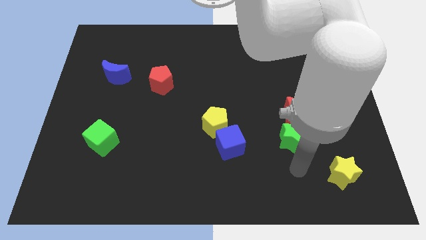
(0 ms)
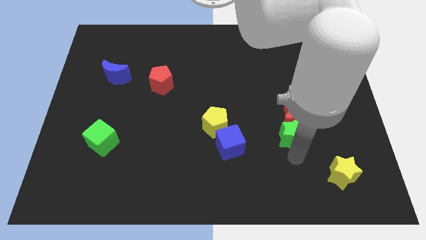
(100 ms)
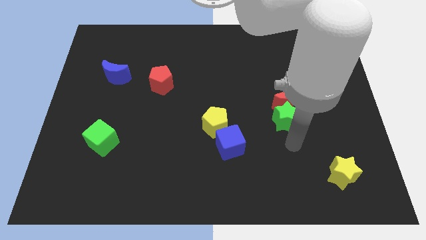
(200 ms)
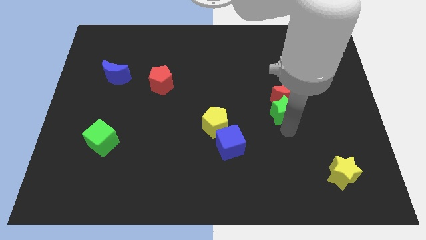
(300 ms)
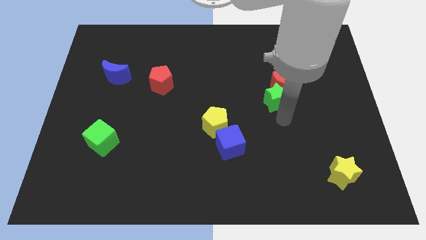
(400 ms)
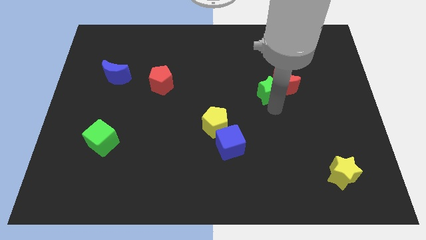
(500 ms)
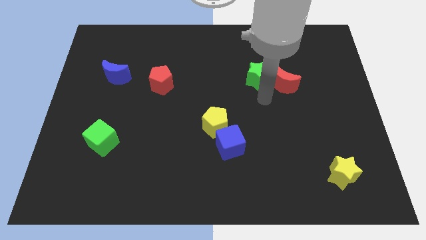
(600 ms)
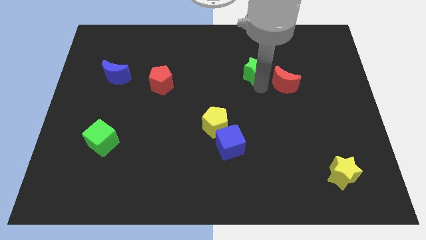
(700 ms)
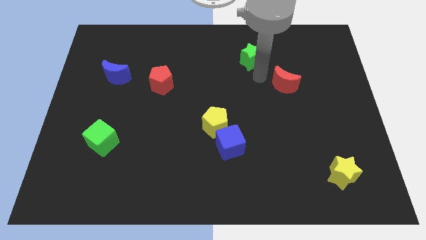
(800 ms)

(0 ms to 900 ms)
separate the red moon from the green star

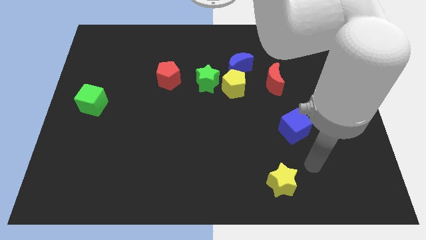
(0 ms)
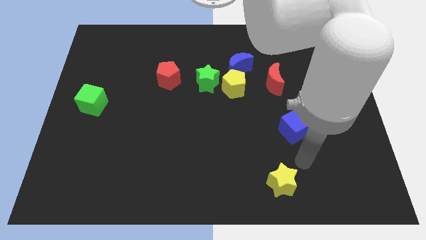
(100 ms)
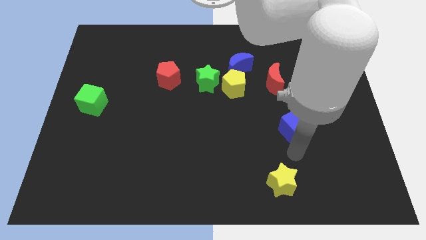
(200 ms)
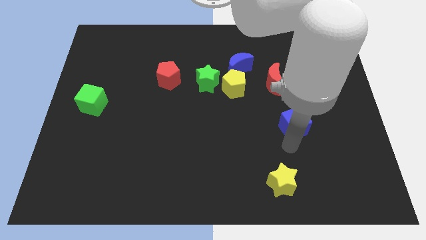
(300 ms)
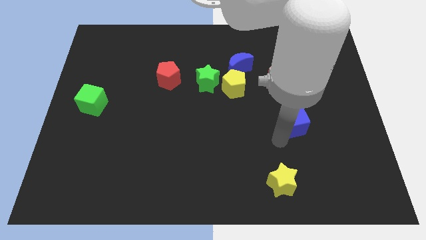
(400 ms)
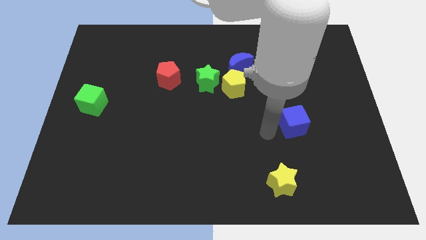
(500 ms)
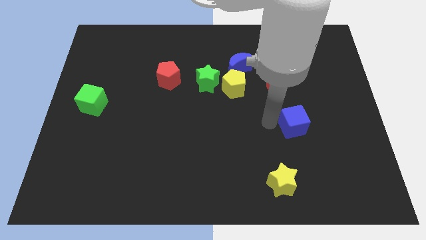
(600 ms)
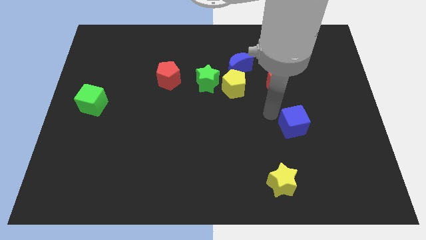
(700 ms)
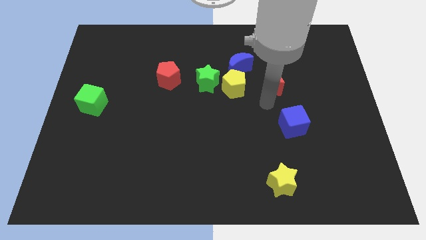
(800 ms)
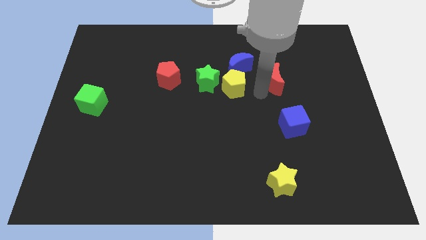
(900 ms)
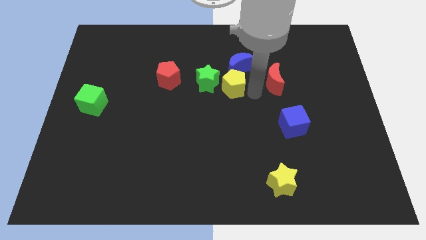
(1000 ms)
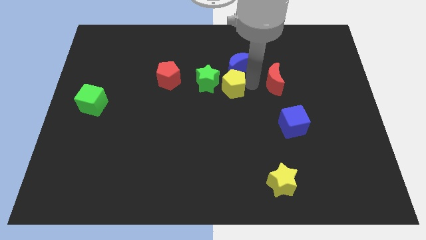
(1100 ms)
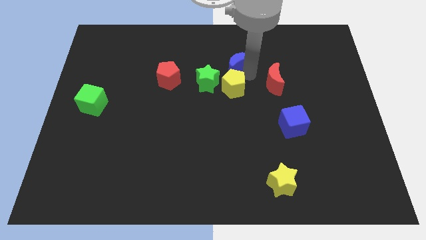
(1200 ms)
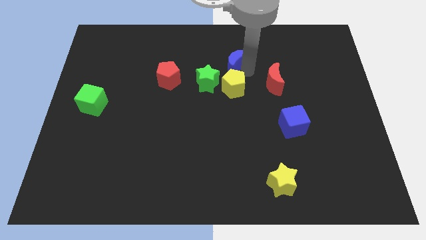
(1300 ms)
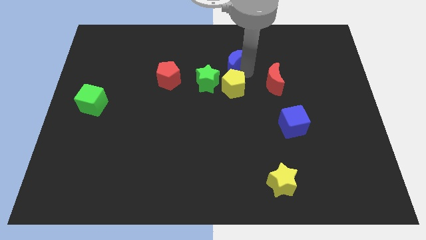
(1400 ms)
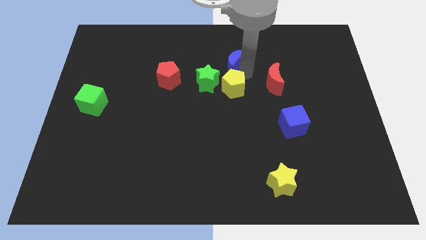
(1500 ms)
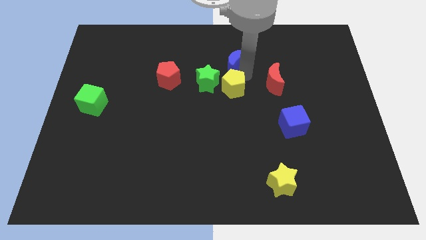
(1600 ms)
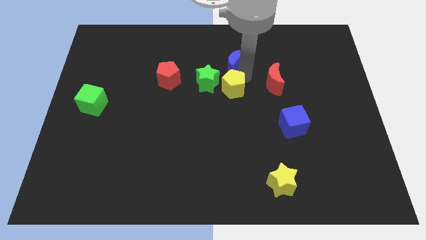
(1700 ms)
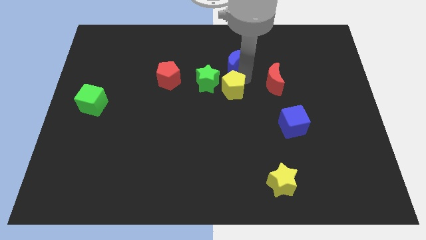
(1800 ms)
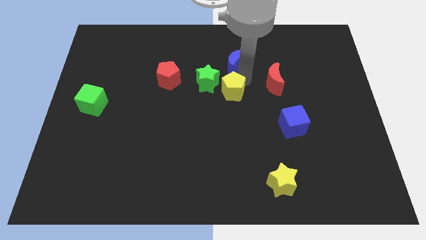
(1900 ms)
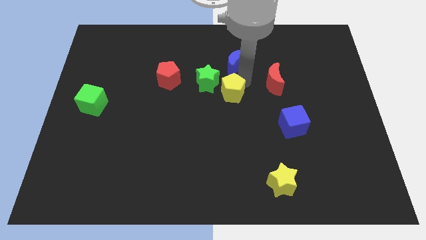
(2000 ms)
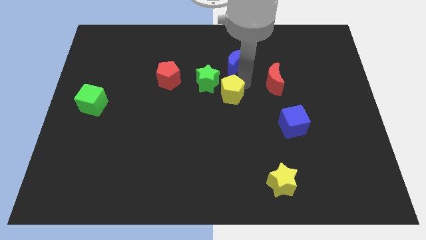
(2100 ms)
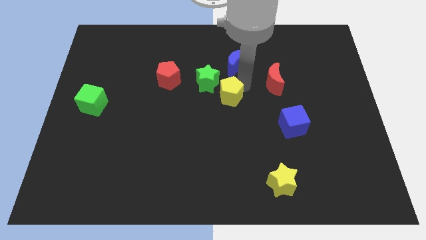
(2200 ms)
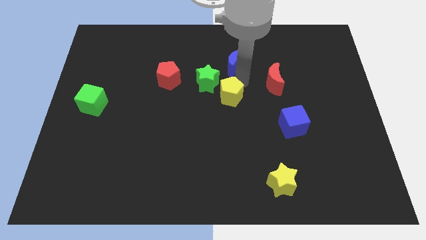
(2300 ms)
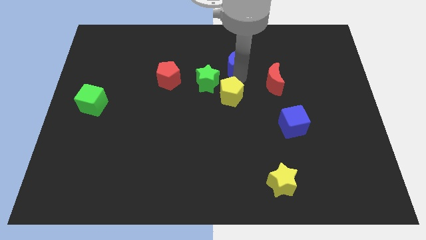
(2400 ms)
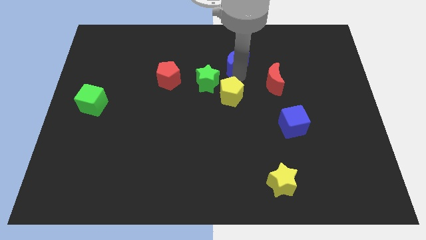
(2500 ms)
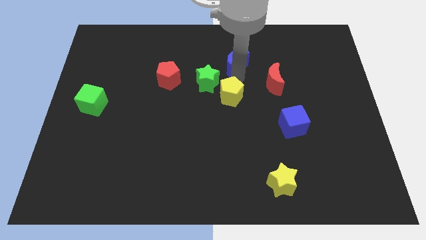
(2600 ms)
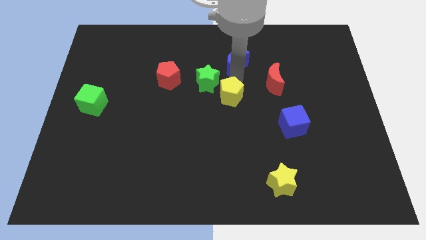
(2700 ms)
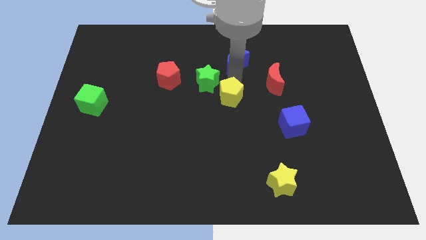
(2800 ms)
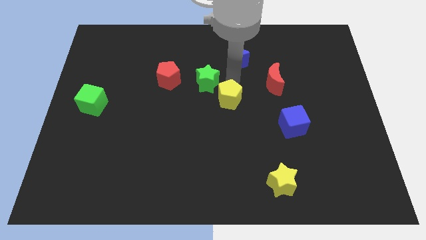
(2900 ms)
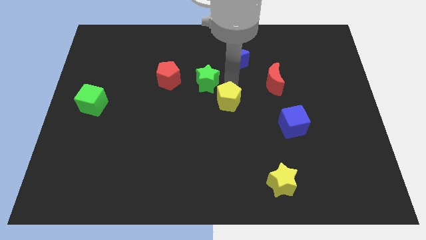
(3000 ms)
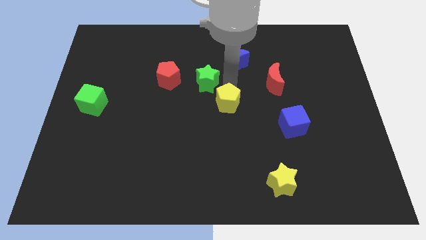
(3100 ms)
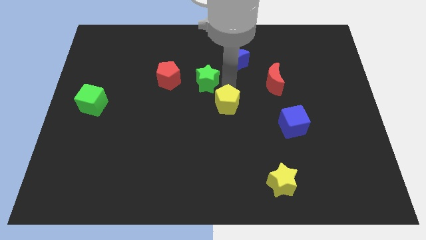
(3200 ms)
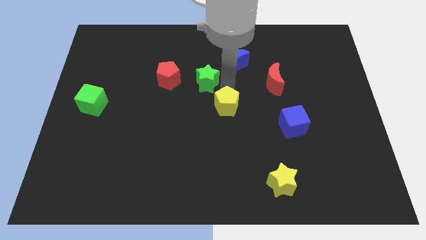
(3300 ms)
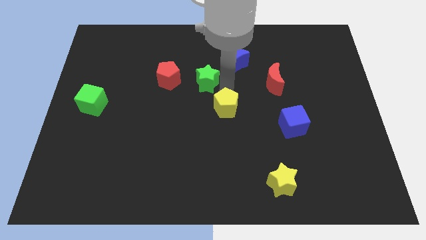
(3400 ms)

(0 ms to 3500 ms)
separate the yellow pentagon from the blue moon, green star, and red moon

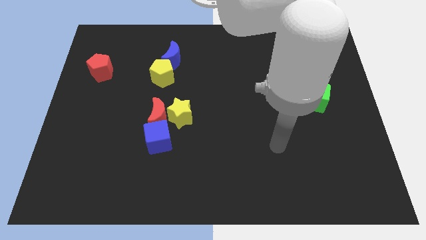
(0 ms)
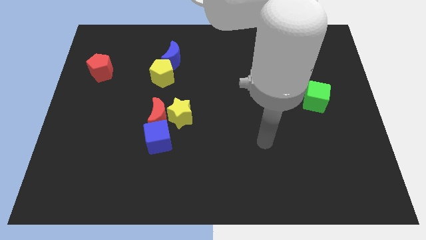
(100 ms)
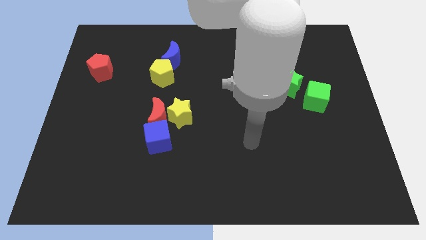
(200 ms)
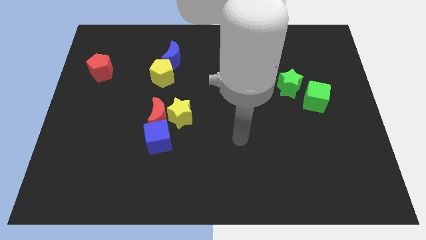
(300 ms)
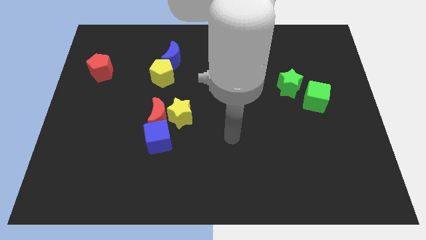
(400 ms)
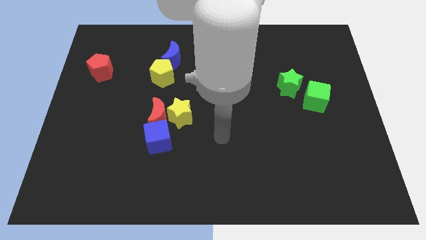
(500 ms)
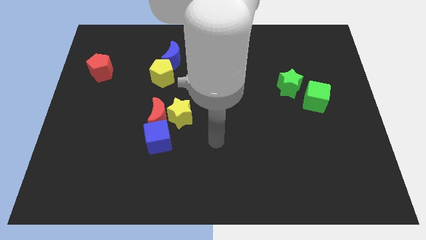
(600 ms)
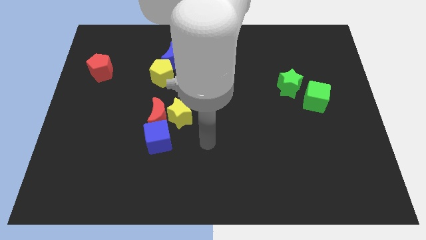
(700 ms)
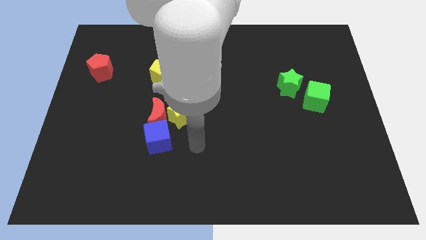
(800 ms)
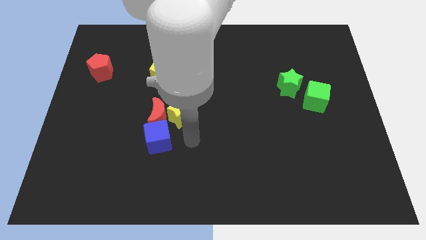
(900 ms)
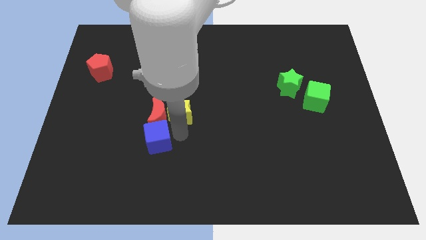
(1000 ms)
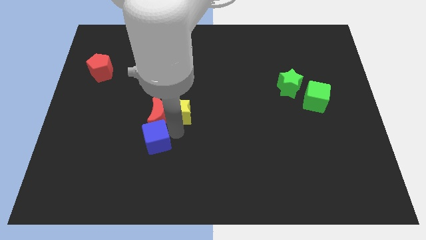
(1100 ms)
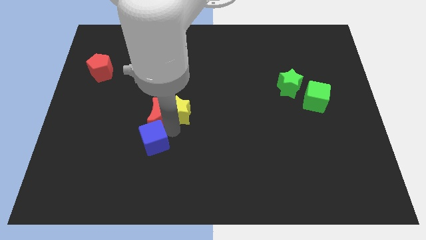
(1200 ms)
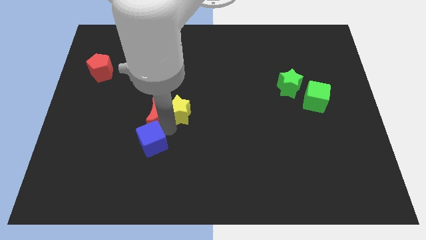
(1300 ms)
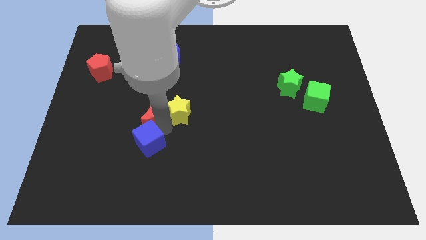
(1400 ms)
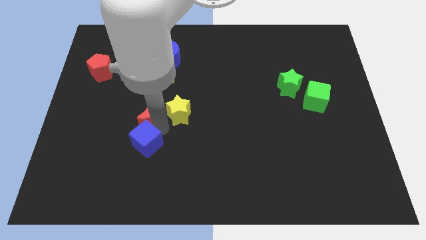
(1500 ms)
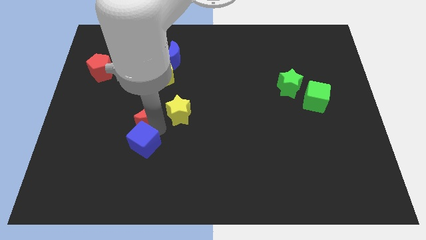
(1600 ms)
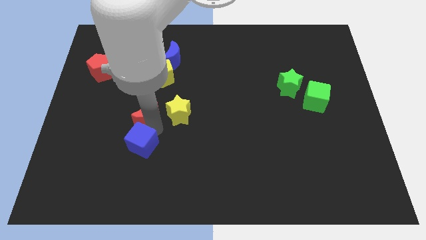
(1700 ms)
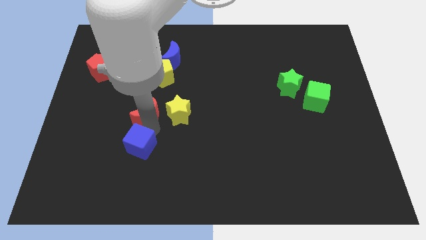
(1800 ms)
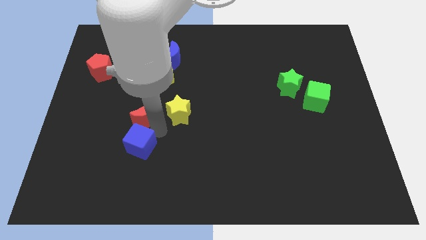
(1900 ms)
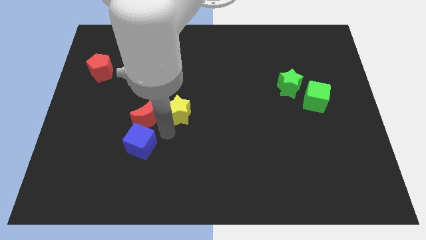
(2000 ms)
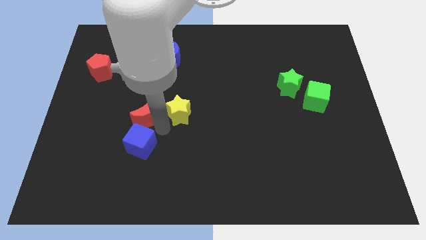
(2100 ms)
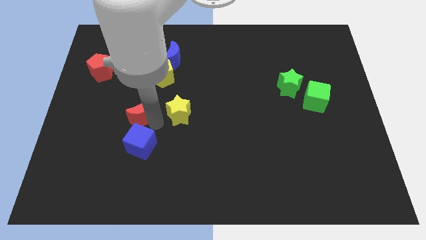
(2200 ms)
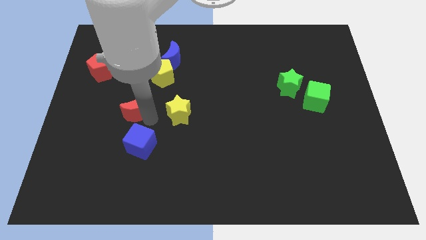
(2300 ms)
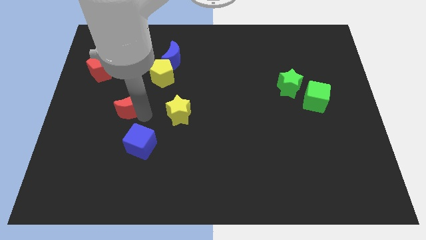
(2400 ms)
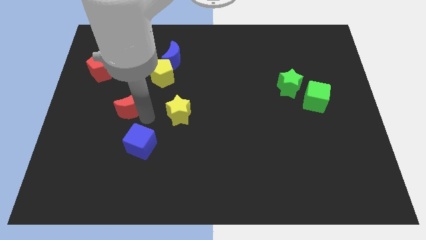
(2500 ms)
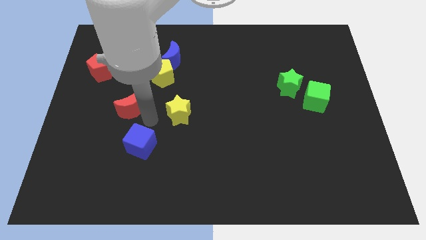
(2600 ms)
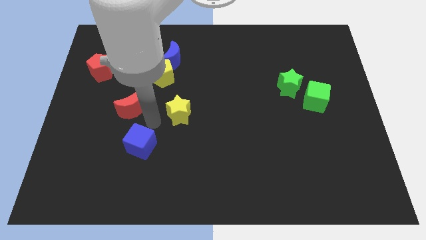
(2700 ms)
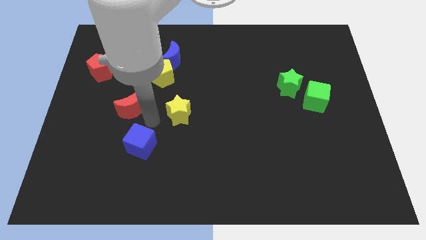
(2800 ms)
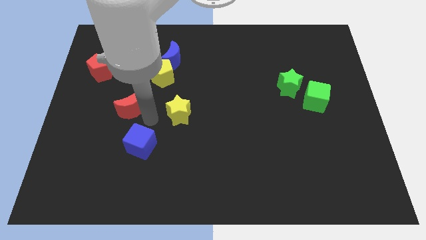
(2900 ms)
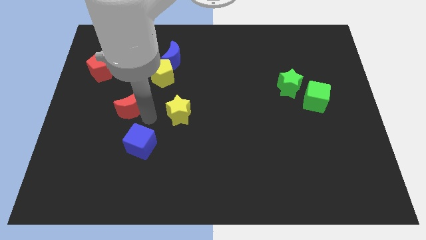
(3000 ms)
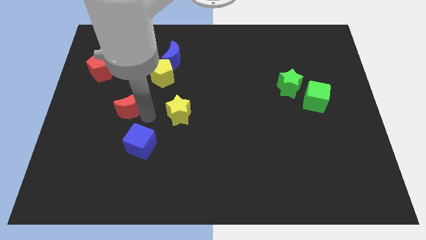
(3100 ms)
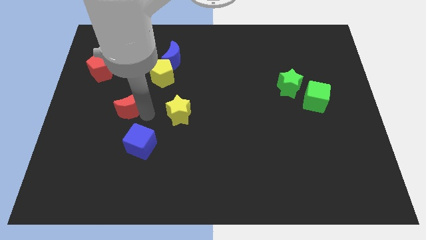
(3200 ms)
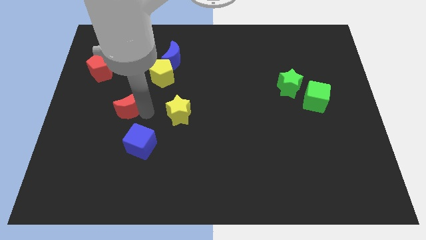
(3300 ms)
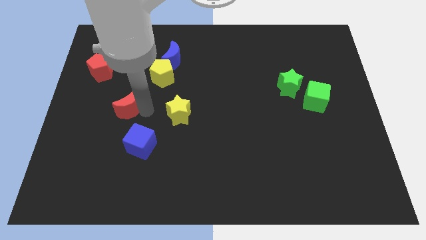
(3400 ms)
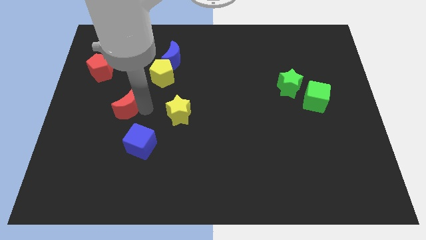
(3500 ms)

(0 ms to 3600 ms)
pull the red moon apart from the yellow star and blue cube

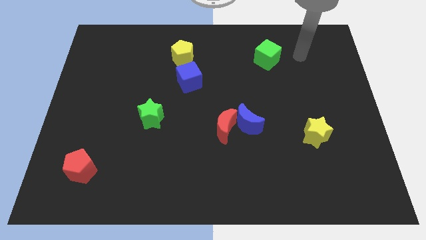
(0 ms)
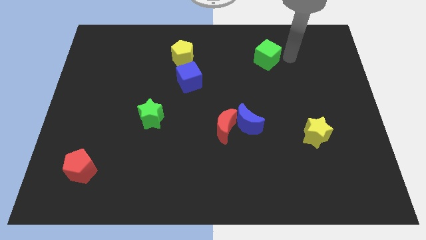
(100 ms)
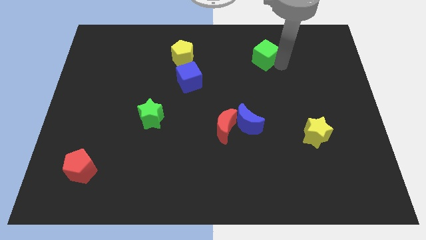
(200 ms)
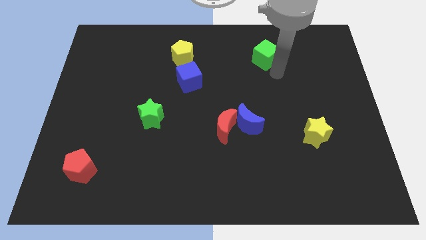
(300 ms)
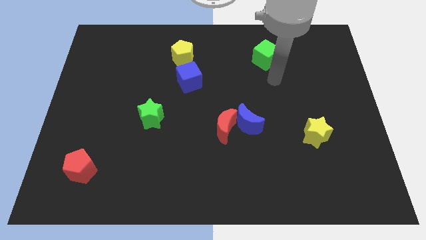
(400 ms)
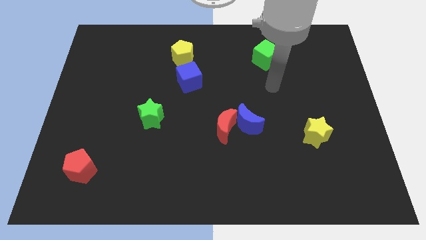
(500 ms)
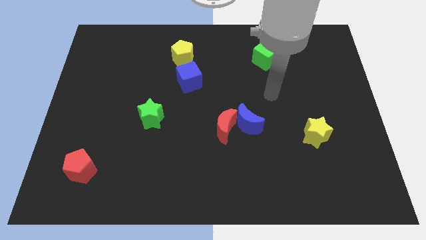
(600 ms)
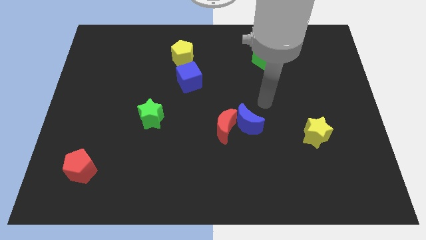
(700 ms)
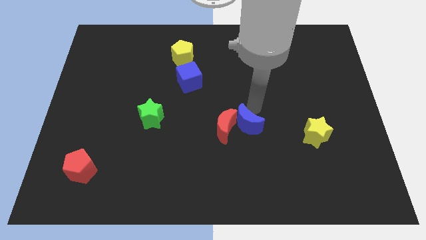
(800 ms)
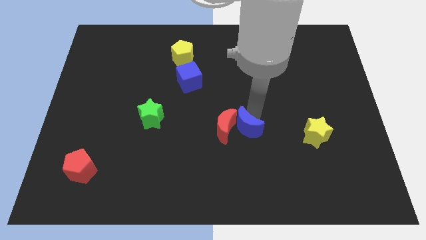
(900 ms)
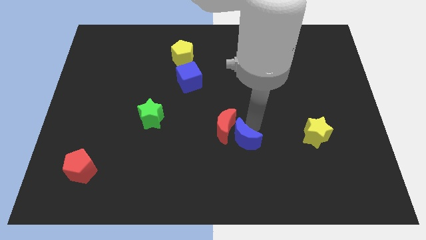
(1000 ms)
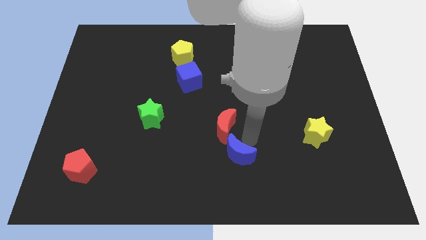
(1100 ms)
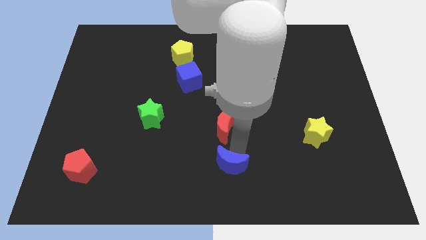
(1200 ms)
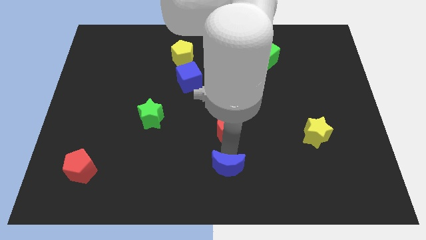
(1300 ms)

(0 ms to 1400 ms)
pull the red moon apart from the blue moon
